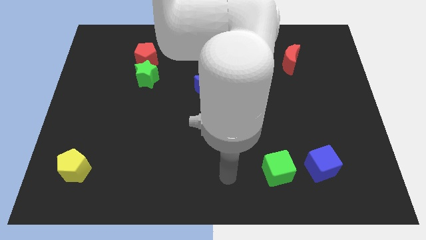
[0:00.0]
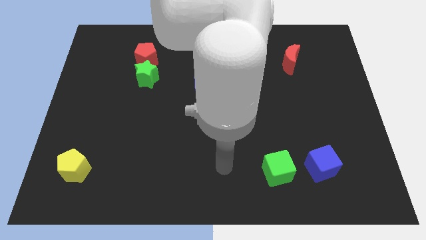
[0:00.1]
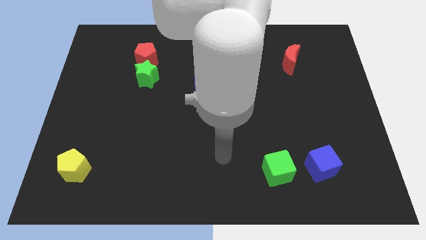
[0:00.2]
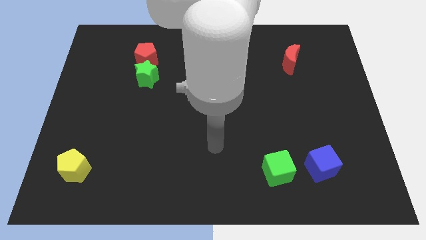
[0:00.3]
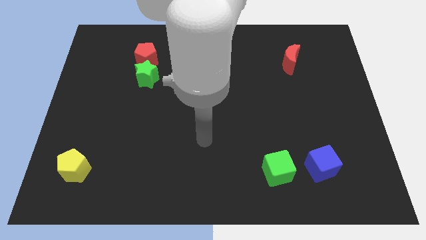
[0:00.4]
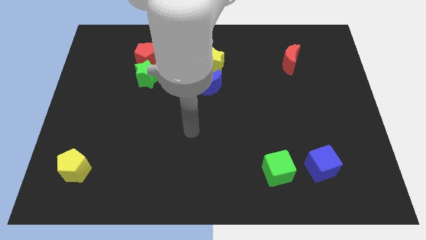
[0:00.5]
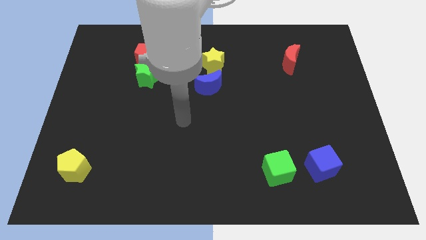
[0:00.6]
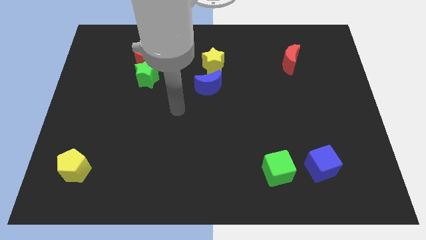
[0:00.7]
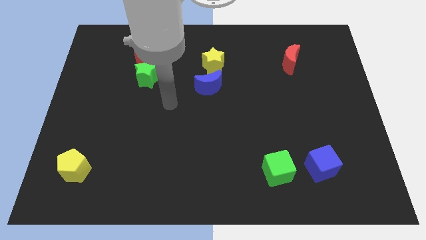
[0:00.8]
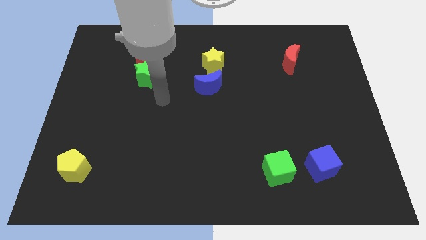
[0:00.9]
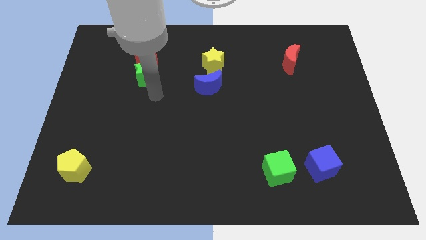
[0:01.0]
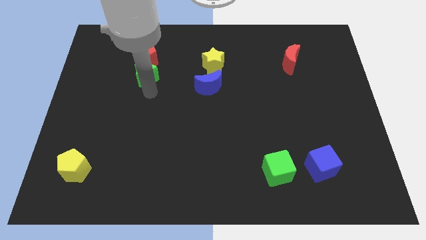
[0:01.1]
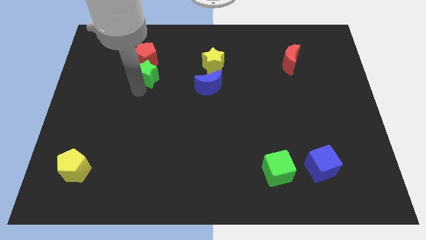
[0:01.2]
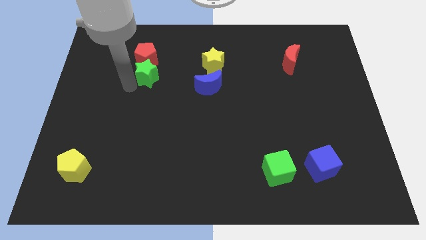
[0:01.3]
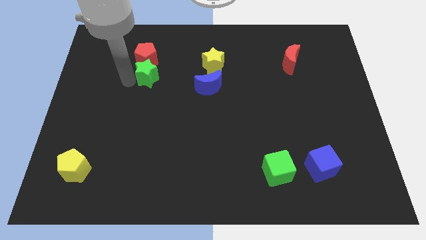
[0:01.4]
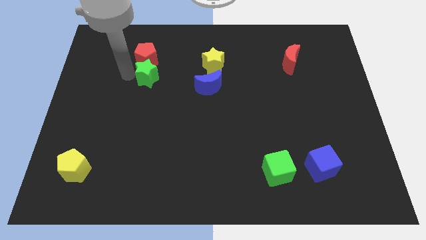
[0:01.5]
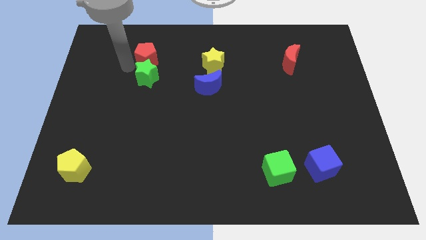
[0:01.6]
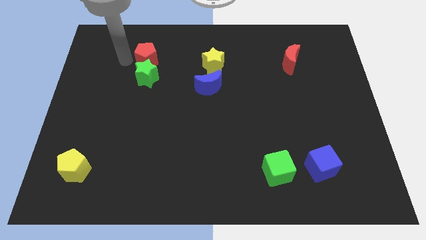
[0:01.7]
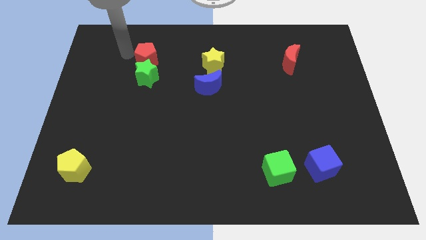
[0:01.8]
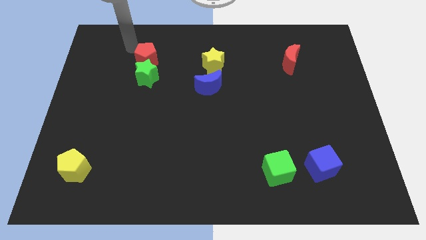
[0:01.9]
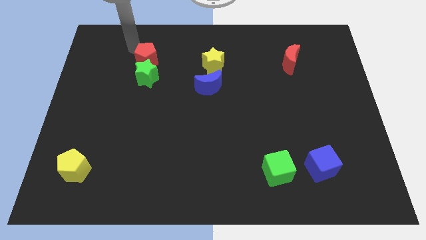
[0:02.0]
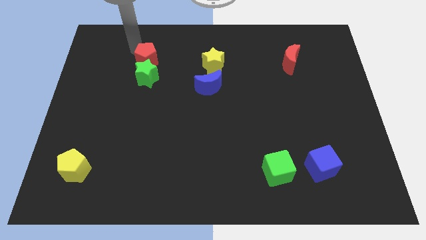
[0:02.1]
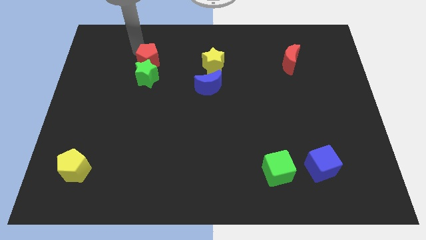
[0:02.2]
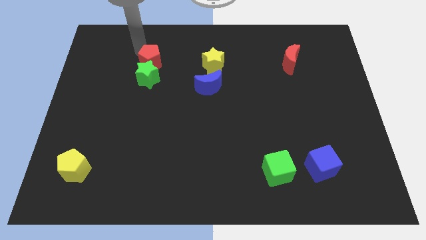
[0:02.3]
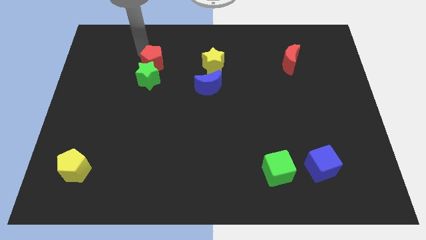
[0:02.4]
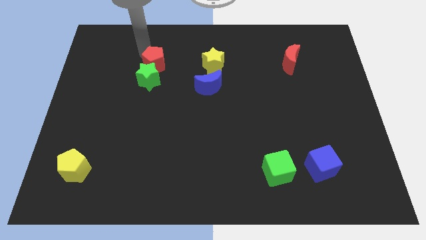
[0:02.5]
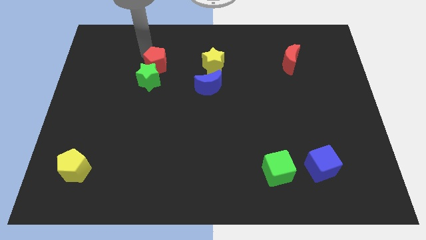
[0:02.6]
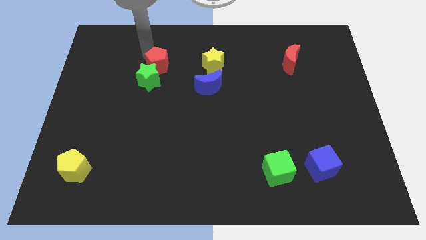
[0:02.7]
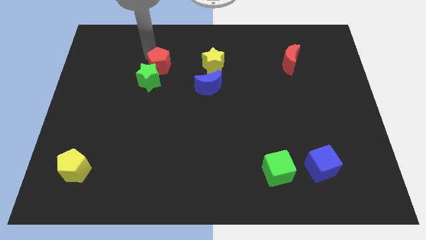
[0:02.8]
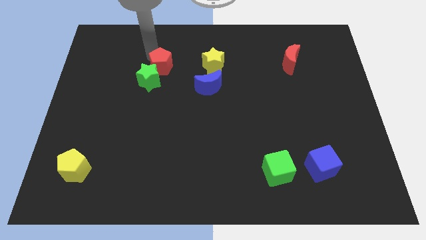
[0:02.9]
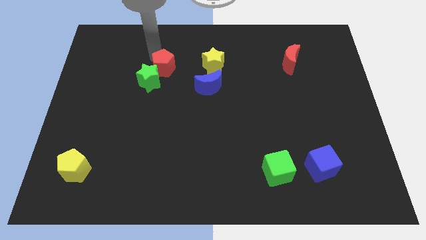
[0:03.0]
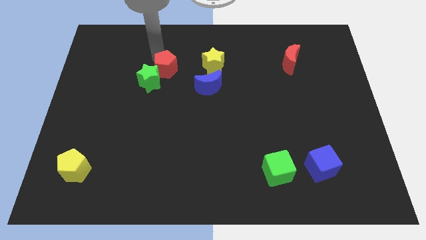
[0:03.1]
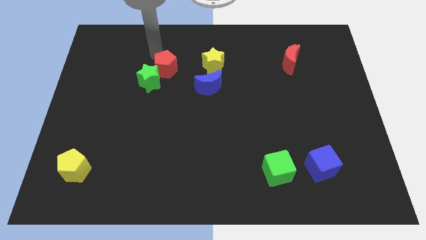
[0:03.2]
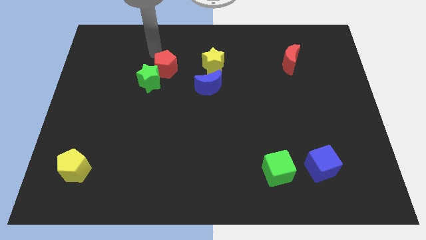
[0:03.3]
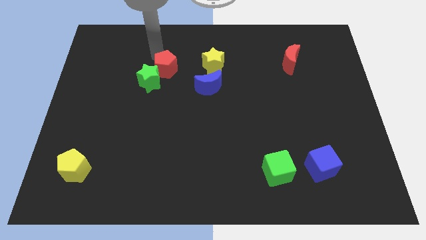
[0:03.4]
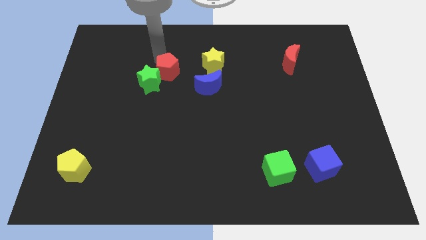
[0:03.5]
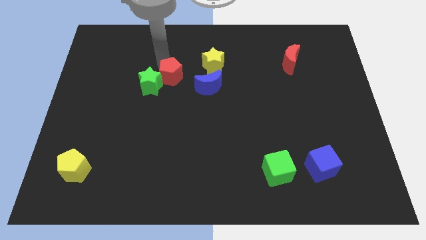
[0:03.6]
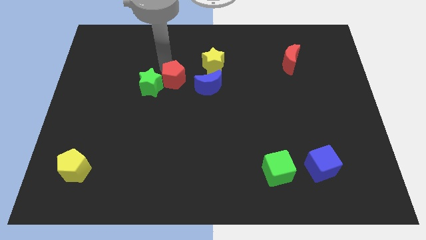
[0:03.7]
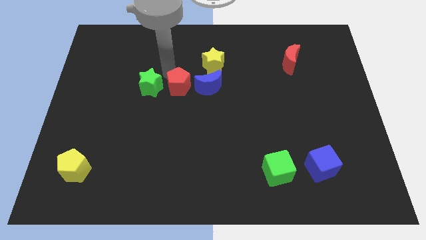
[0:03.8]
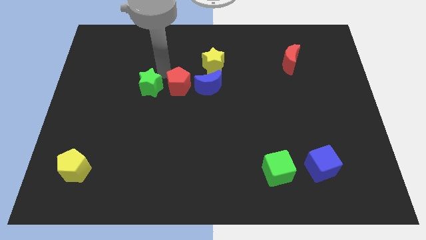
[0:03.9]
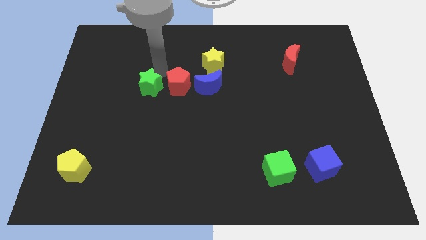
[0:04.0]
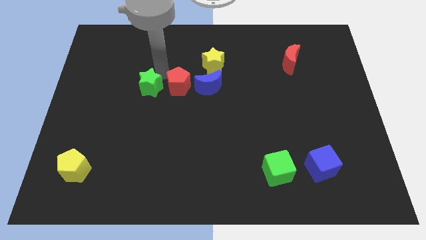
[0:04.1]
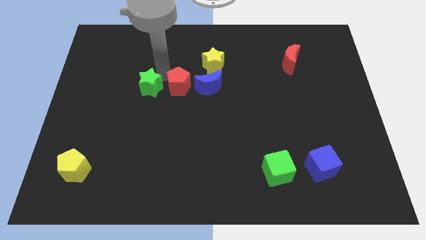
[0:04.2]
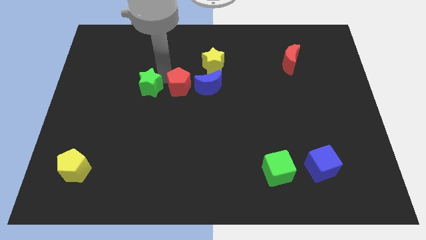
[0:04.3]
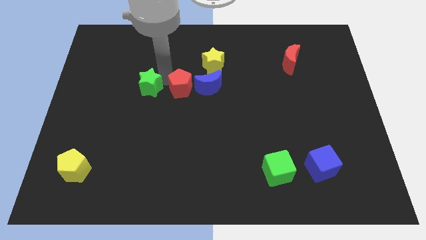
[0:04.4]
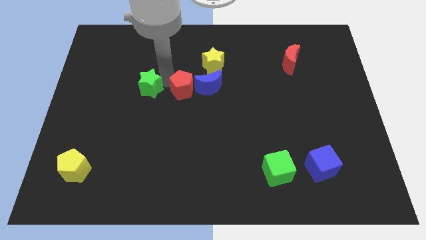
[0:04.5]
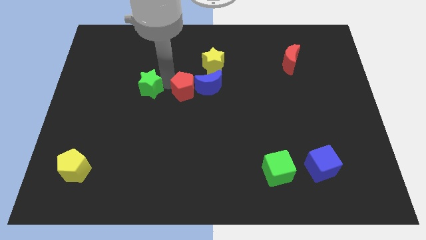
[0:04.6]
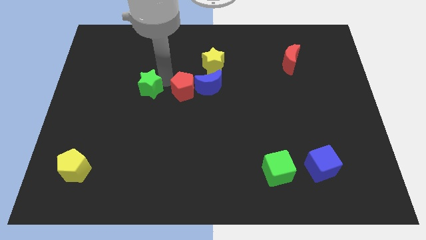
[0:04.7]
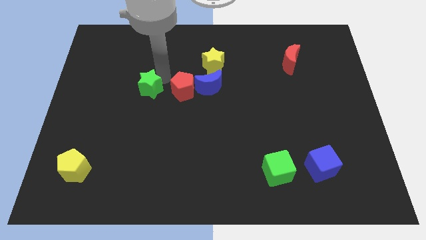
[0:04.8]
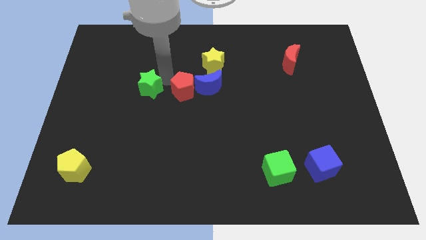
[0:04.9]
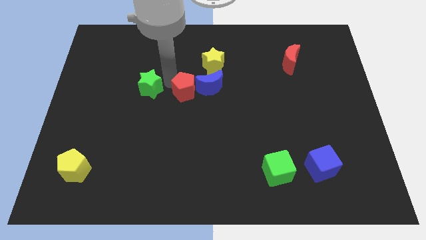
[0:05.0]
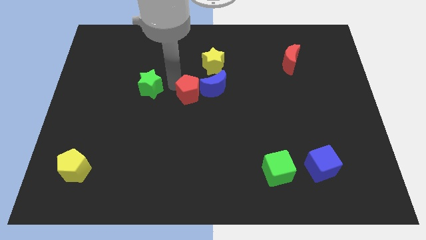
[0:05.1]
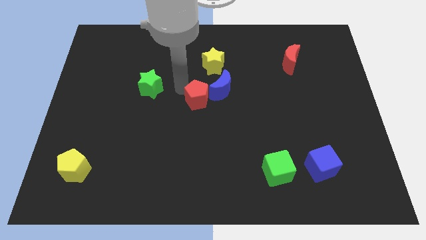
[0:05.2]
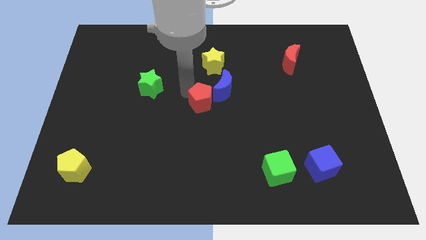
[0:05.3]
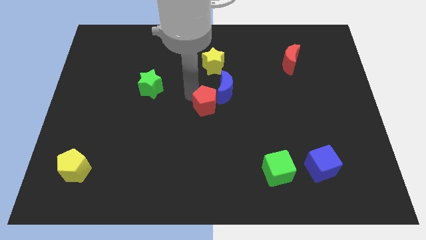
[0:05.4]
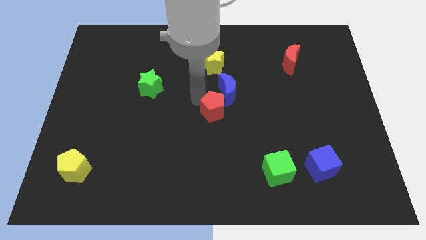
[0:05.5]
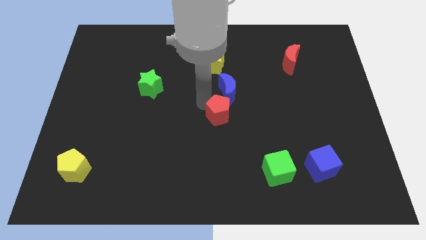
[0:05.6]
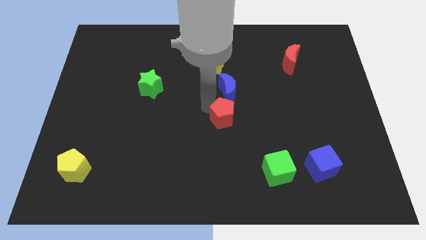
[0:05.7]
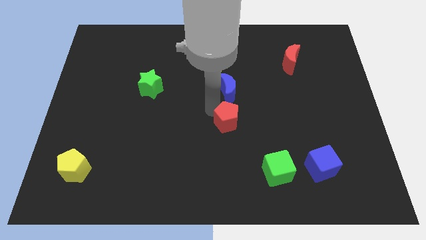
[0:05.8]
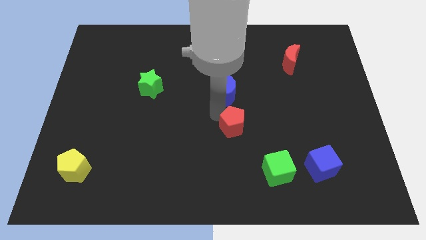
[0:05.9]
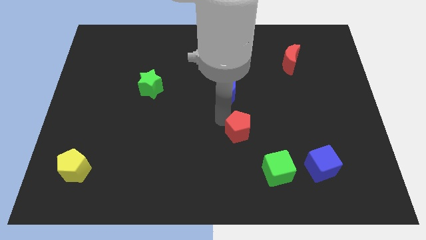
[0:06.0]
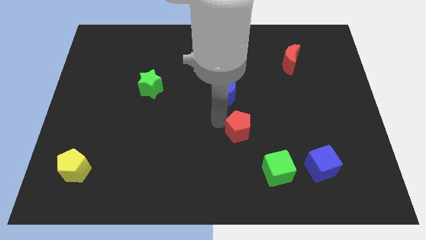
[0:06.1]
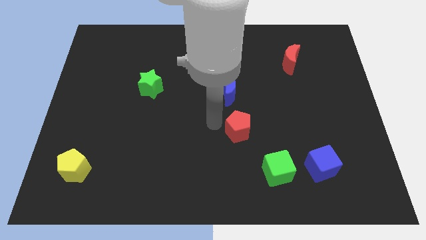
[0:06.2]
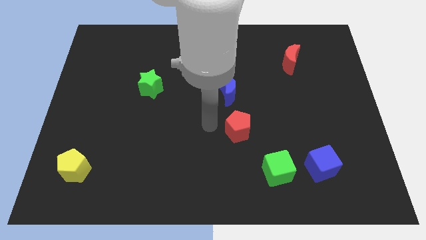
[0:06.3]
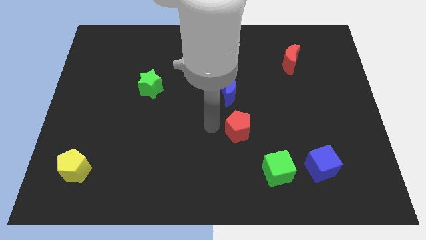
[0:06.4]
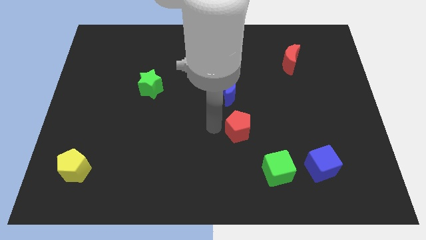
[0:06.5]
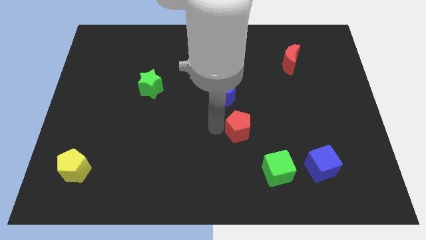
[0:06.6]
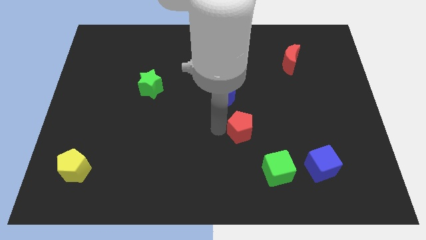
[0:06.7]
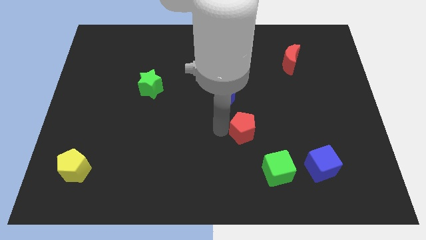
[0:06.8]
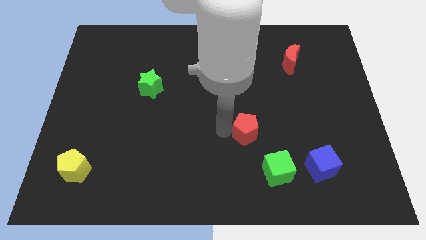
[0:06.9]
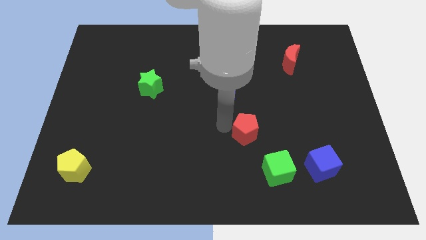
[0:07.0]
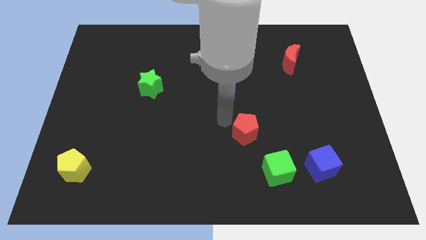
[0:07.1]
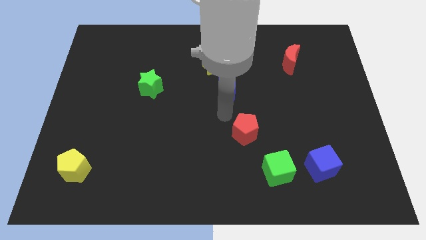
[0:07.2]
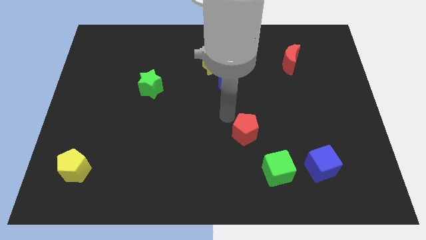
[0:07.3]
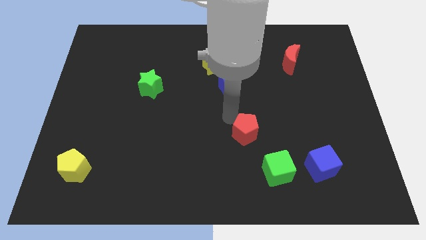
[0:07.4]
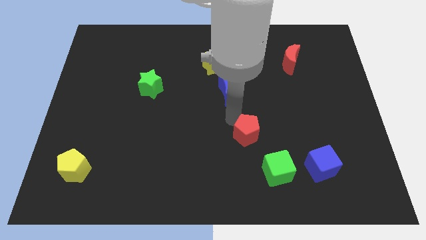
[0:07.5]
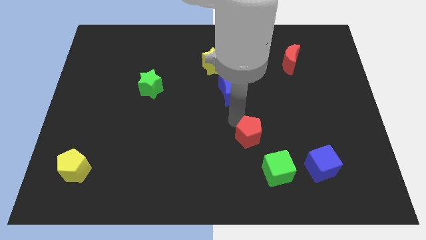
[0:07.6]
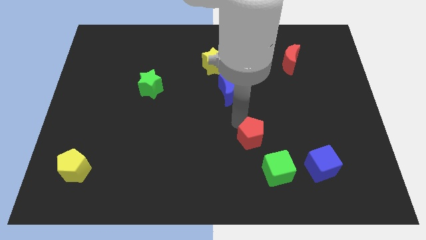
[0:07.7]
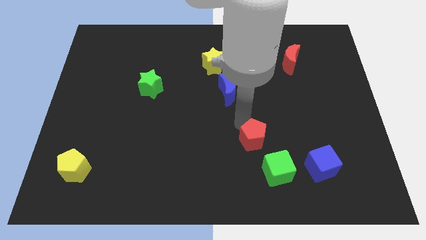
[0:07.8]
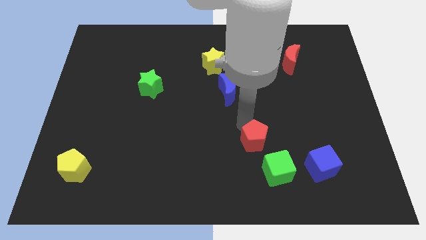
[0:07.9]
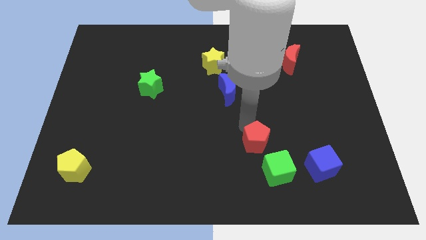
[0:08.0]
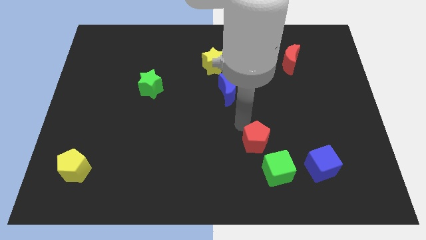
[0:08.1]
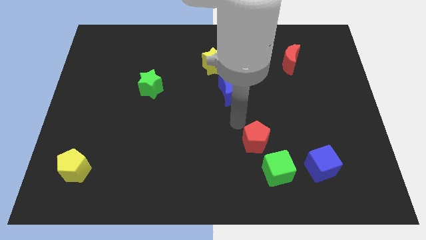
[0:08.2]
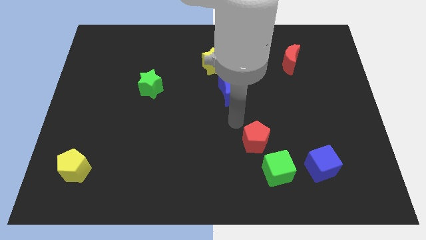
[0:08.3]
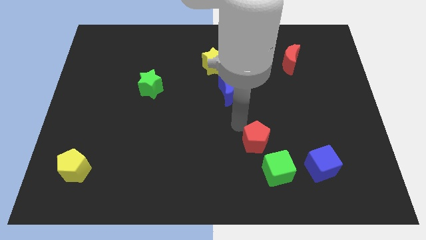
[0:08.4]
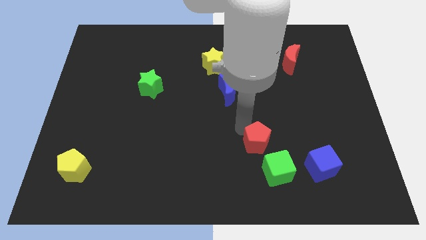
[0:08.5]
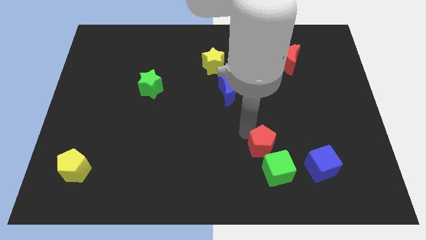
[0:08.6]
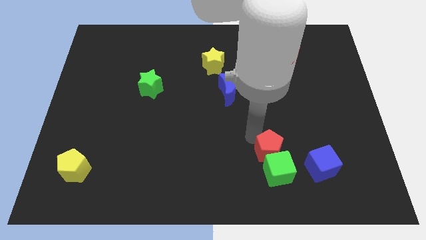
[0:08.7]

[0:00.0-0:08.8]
put the red pentagon to the green cube
